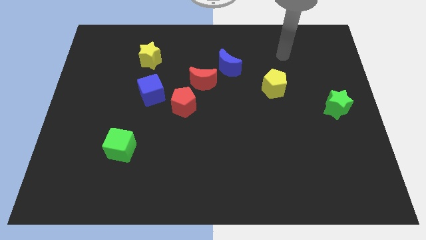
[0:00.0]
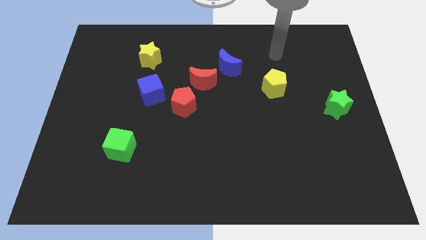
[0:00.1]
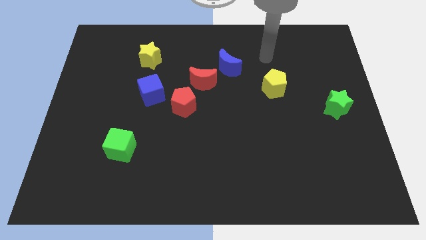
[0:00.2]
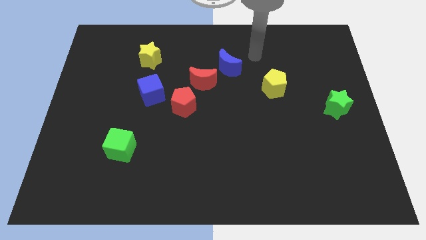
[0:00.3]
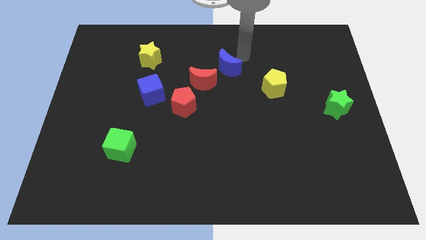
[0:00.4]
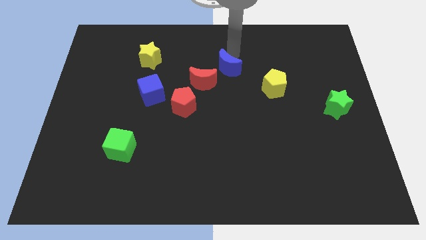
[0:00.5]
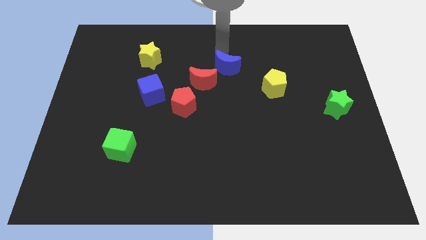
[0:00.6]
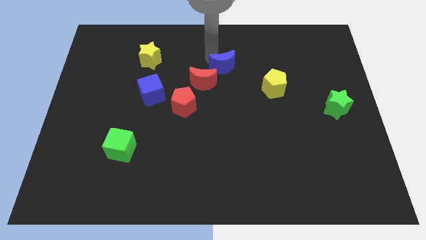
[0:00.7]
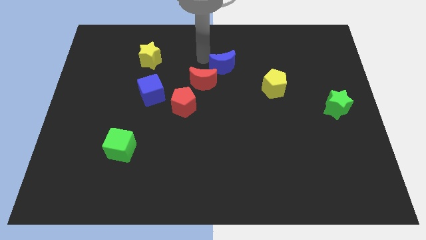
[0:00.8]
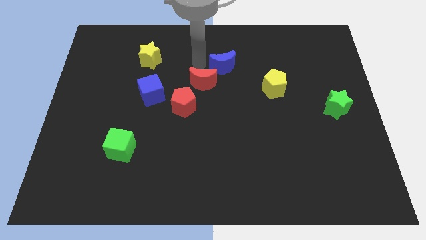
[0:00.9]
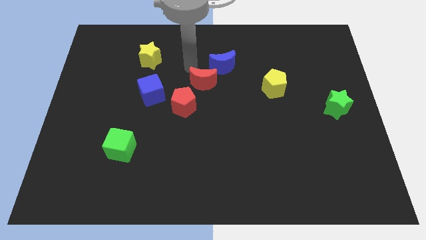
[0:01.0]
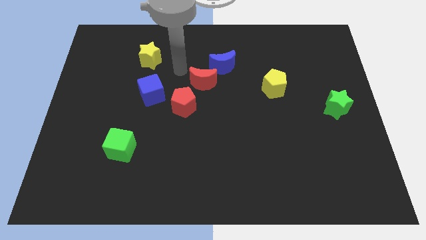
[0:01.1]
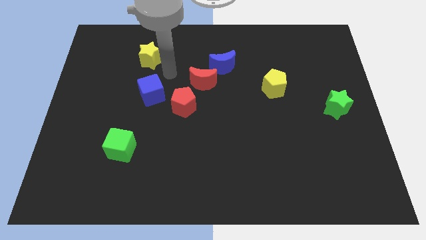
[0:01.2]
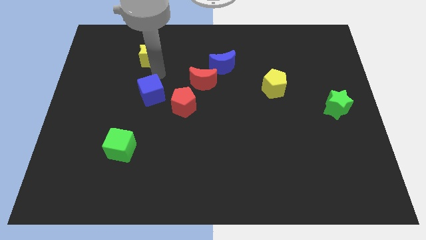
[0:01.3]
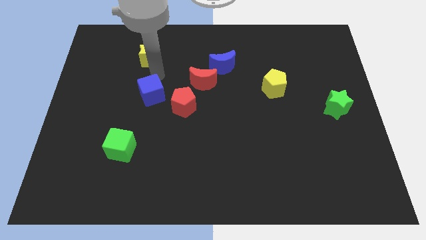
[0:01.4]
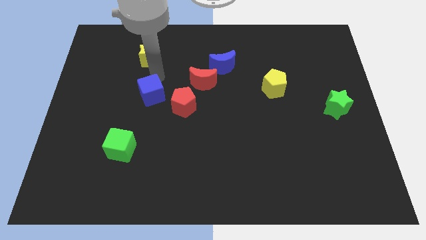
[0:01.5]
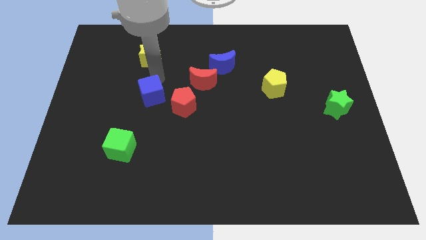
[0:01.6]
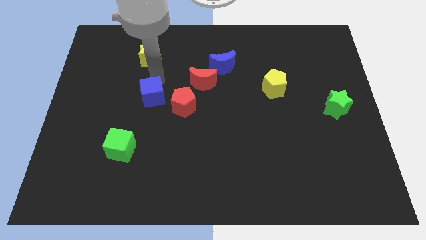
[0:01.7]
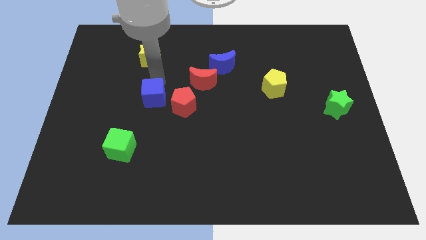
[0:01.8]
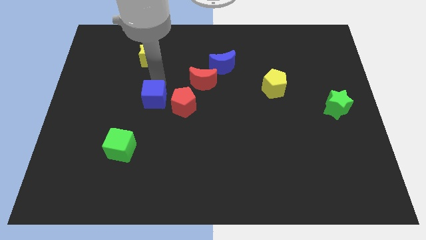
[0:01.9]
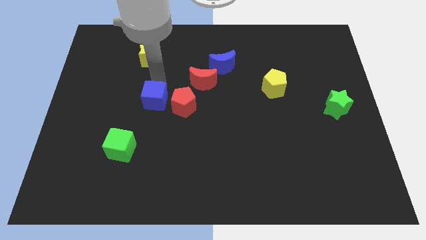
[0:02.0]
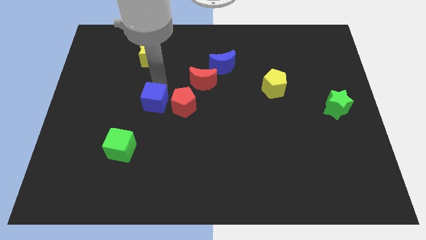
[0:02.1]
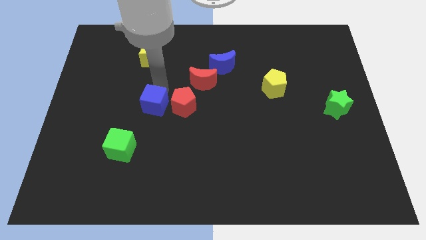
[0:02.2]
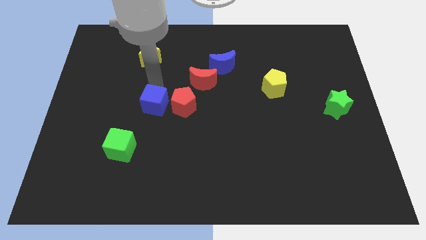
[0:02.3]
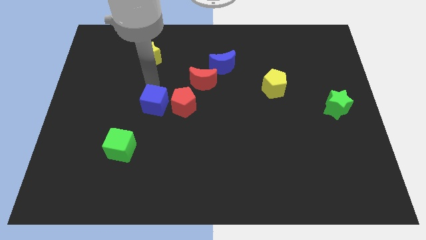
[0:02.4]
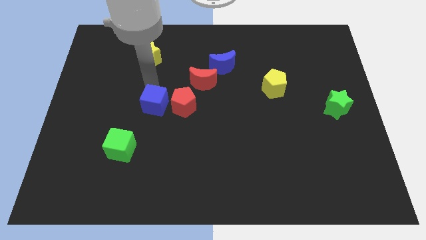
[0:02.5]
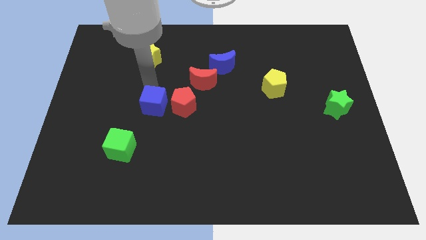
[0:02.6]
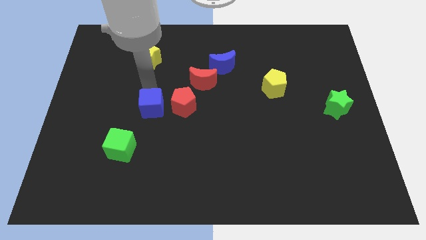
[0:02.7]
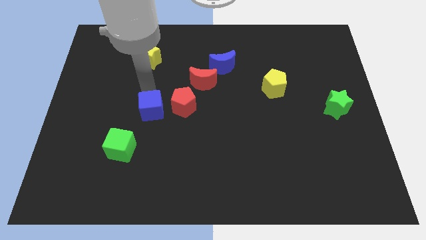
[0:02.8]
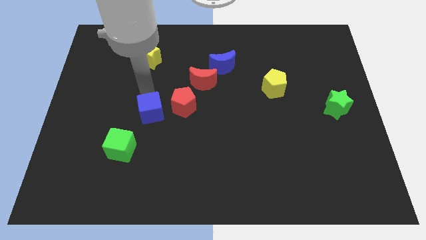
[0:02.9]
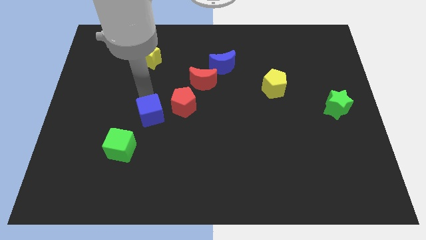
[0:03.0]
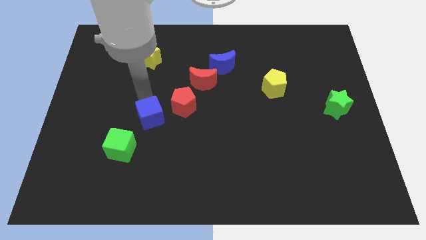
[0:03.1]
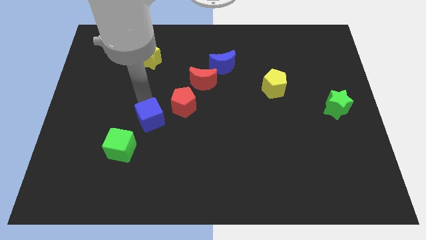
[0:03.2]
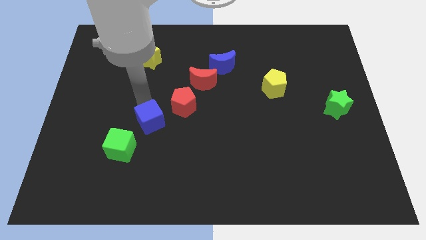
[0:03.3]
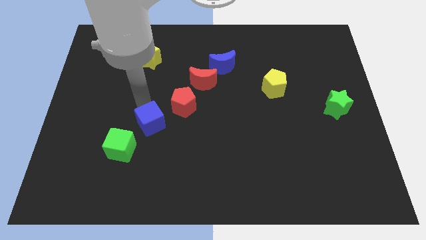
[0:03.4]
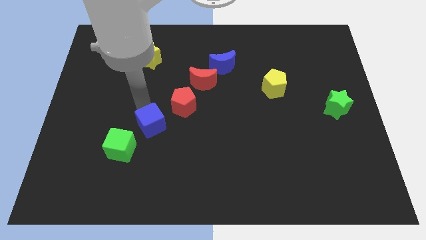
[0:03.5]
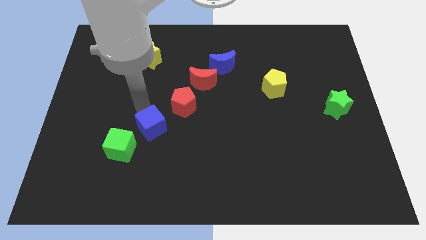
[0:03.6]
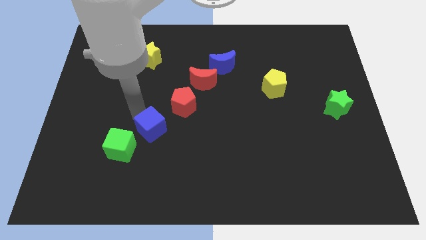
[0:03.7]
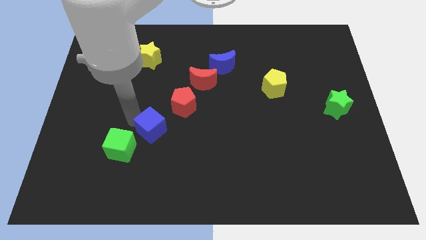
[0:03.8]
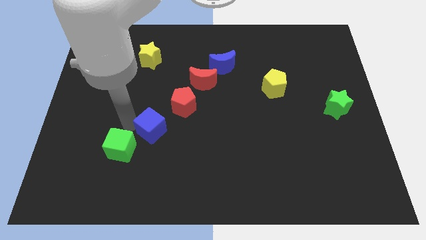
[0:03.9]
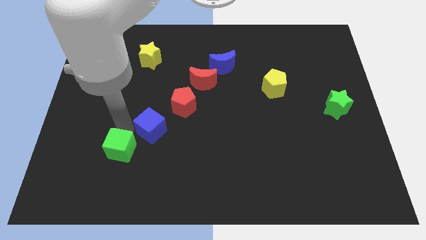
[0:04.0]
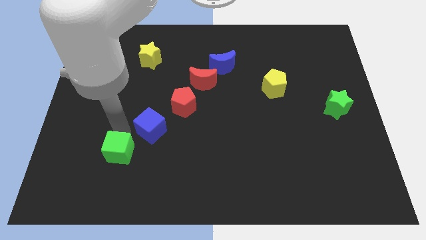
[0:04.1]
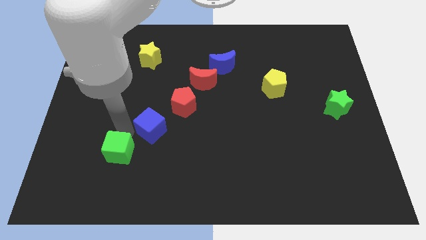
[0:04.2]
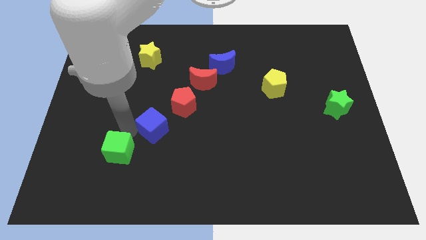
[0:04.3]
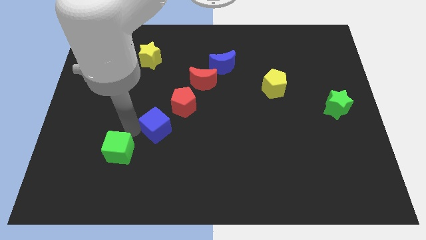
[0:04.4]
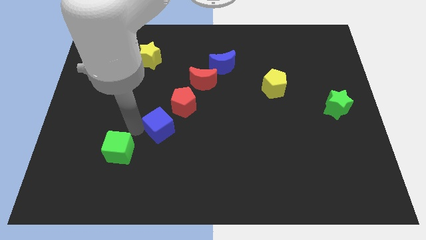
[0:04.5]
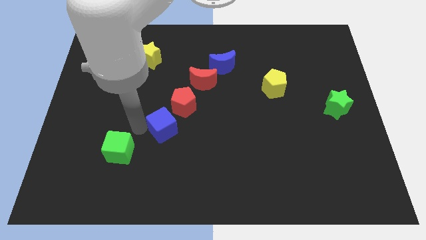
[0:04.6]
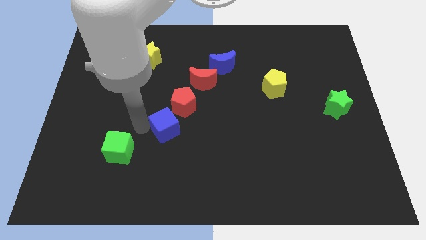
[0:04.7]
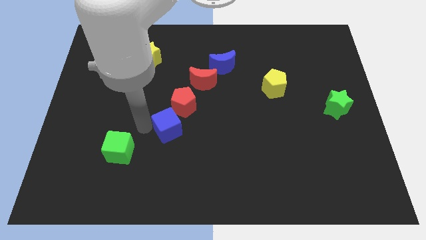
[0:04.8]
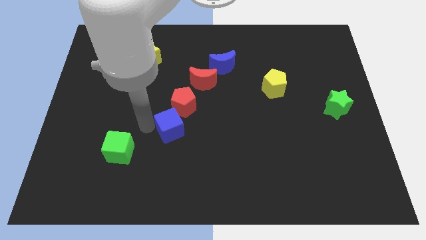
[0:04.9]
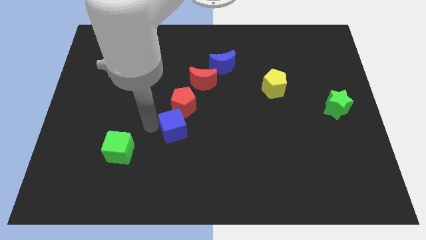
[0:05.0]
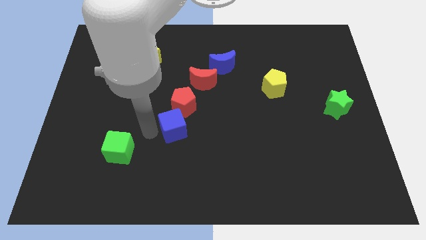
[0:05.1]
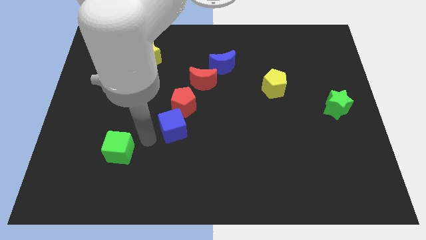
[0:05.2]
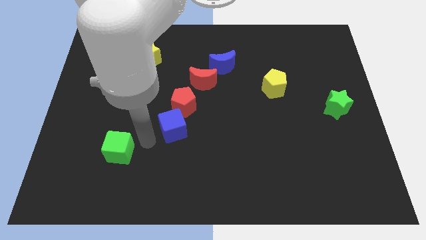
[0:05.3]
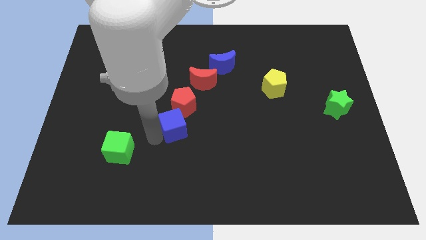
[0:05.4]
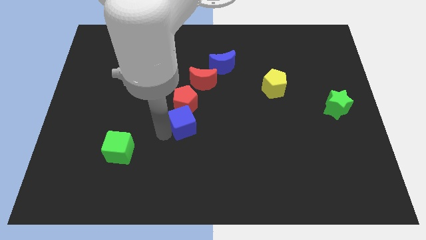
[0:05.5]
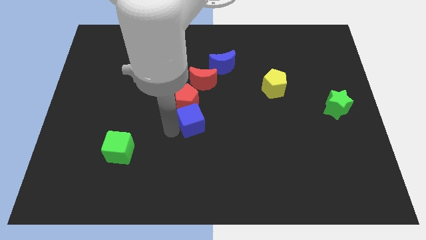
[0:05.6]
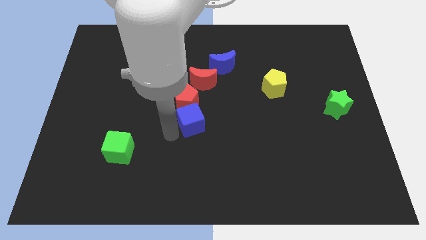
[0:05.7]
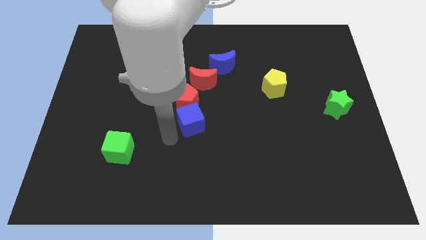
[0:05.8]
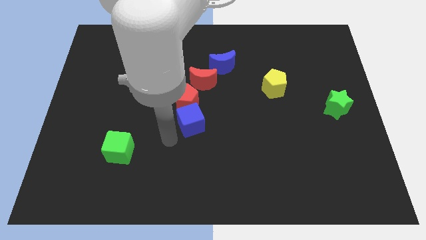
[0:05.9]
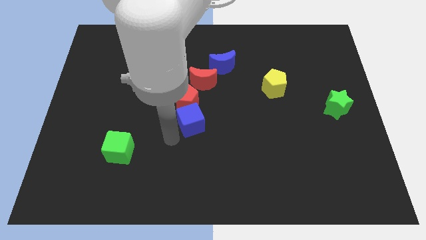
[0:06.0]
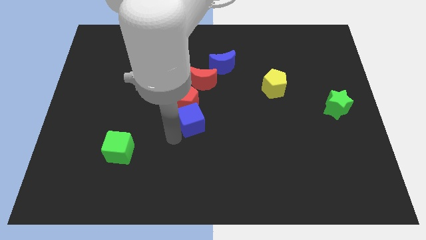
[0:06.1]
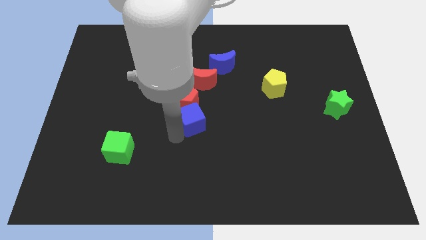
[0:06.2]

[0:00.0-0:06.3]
slightly slide the blue cube to the right

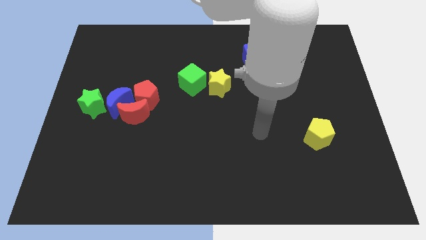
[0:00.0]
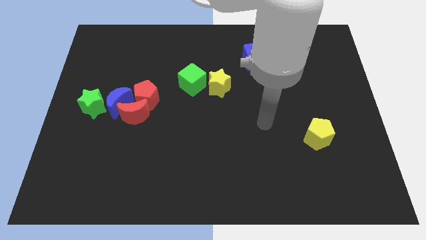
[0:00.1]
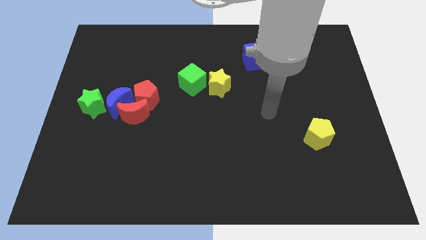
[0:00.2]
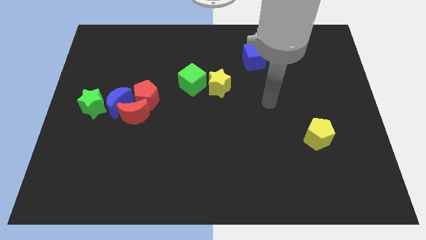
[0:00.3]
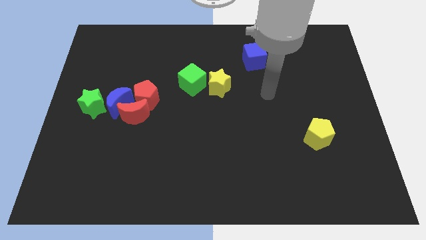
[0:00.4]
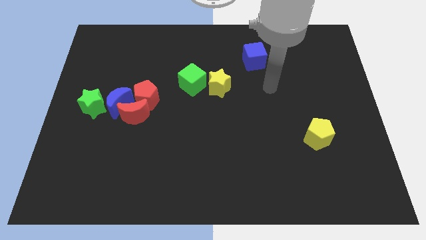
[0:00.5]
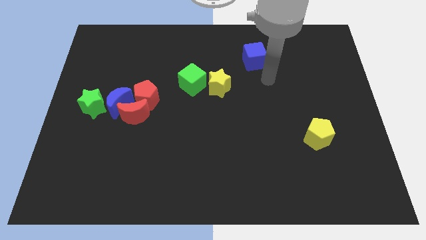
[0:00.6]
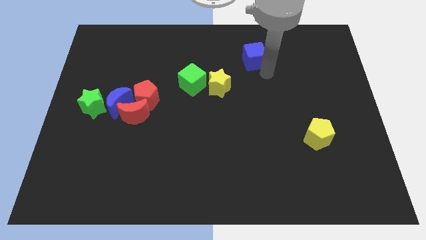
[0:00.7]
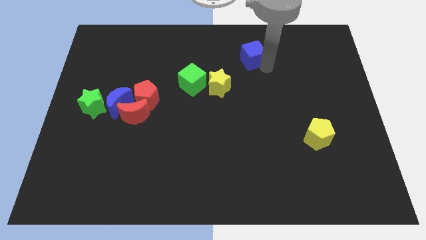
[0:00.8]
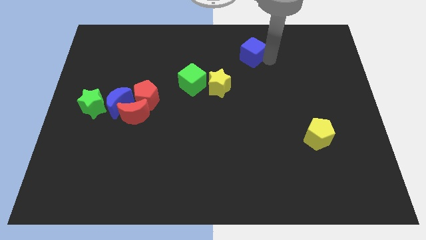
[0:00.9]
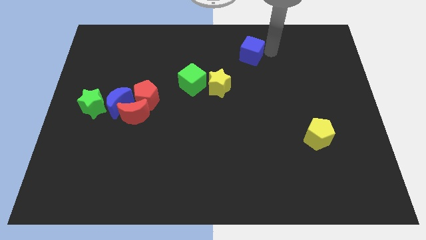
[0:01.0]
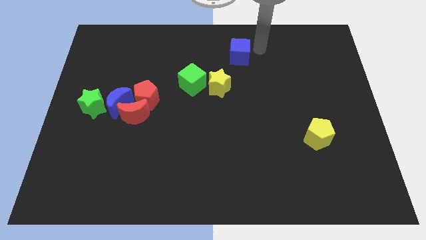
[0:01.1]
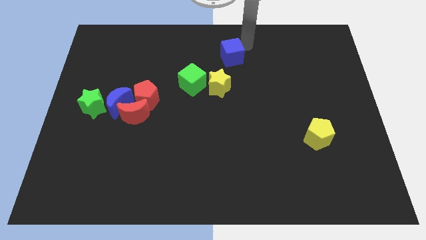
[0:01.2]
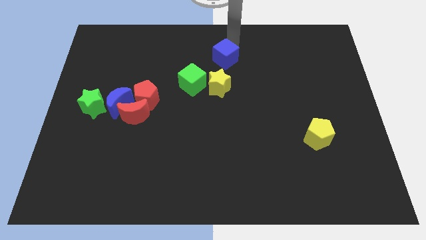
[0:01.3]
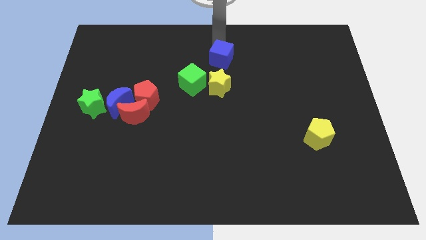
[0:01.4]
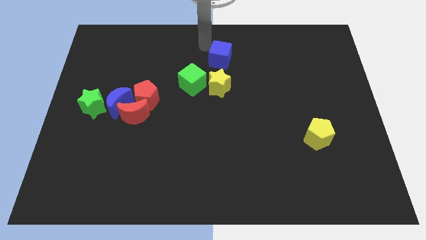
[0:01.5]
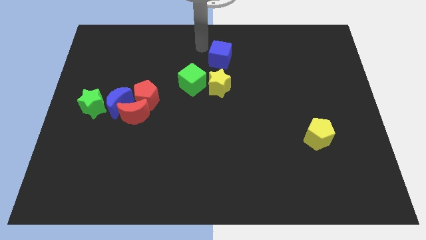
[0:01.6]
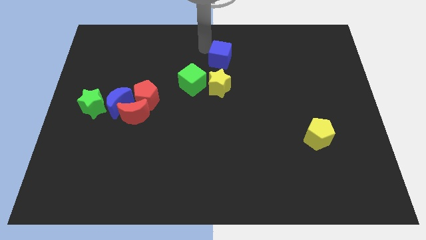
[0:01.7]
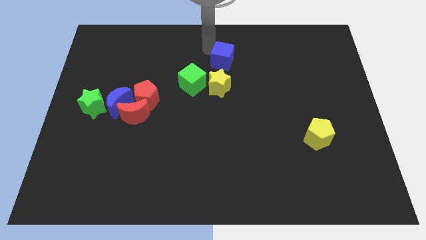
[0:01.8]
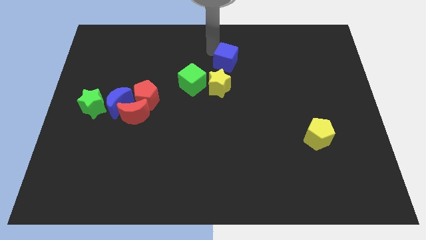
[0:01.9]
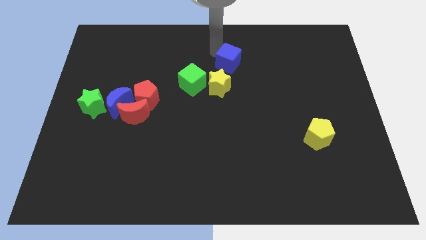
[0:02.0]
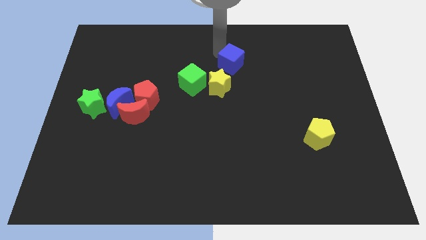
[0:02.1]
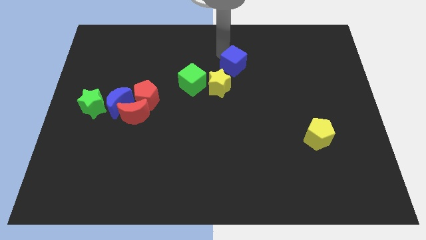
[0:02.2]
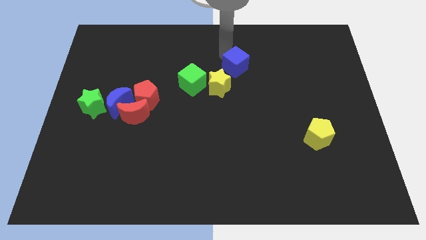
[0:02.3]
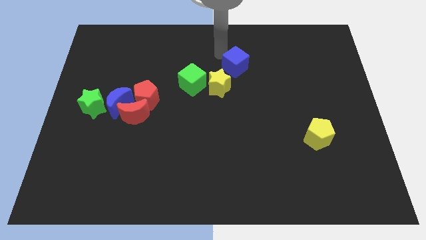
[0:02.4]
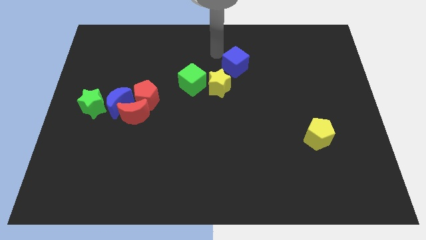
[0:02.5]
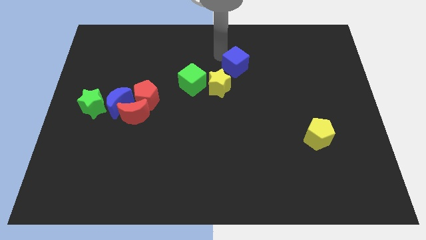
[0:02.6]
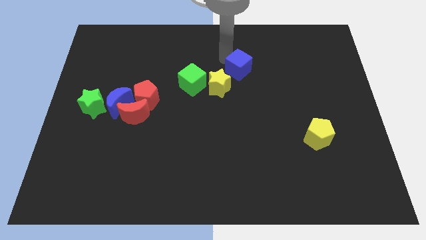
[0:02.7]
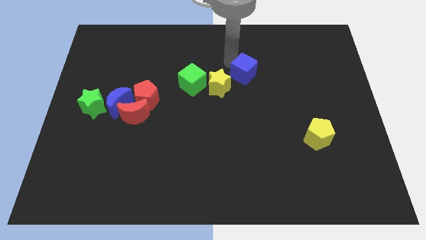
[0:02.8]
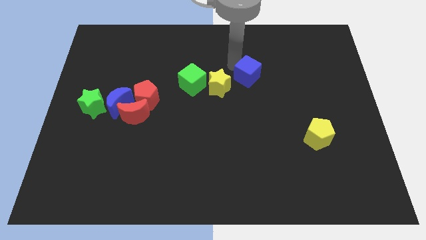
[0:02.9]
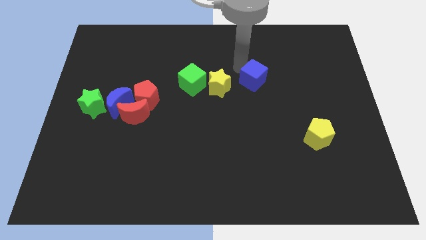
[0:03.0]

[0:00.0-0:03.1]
slightly move the blue cube downwards
